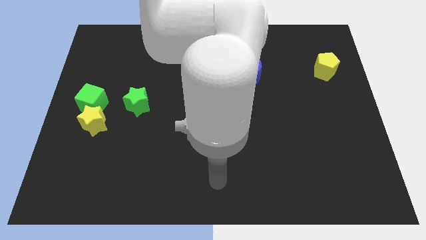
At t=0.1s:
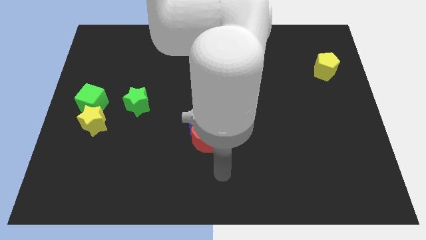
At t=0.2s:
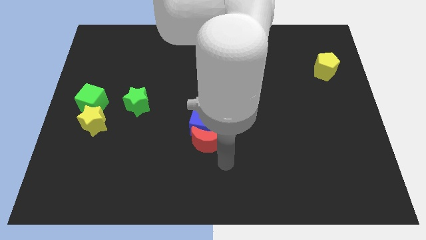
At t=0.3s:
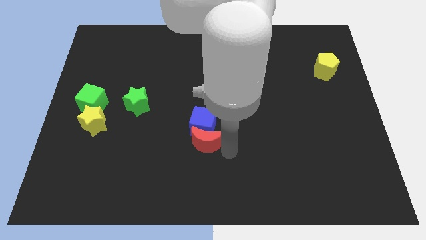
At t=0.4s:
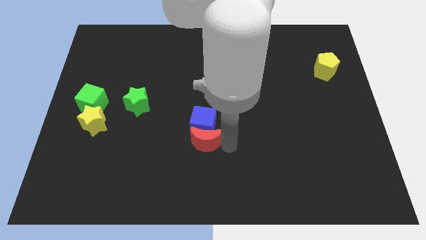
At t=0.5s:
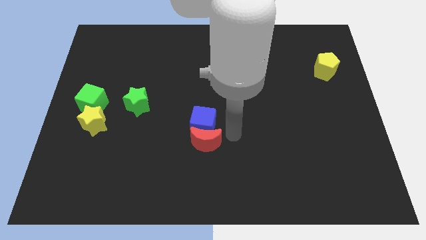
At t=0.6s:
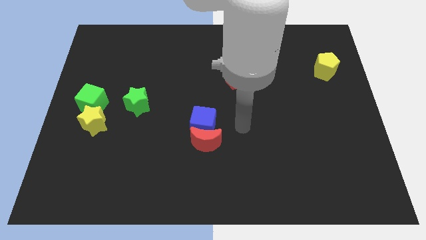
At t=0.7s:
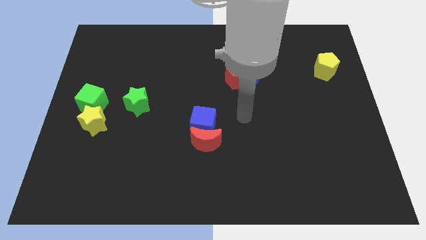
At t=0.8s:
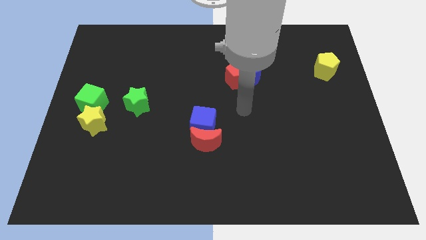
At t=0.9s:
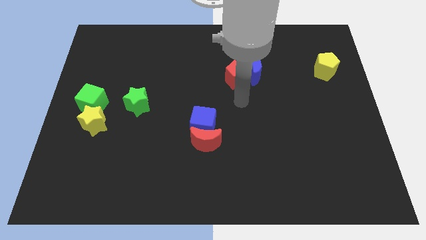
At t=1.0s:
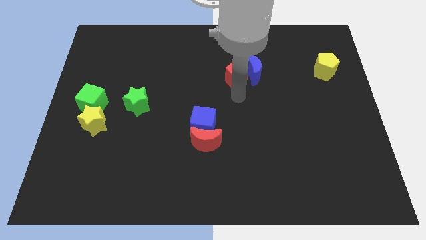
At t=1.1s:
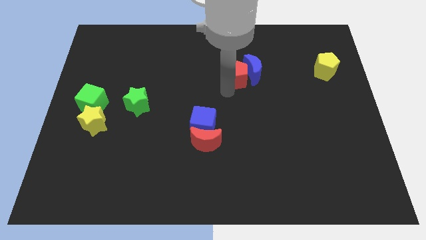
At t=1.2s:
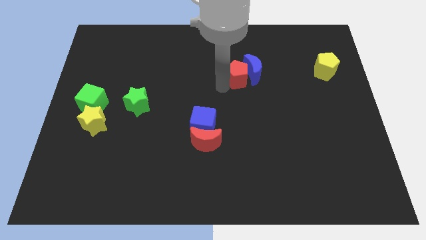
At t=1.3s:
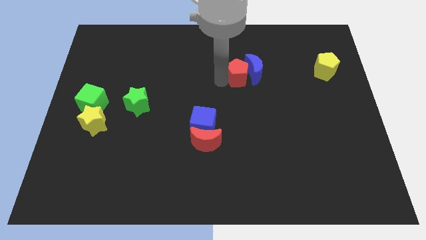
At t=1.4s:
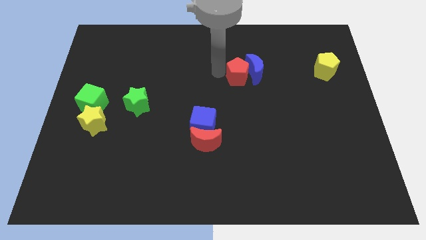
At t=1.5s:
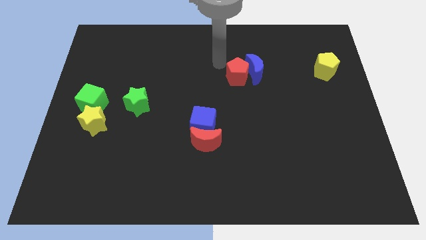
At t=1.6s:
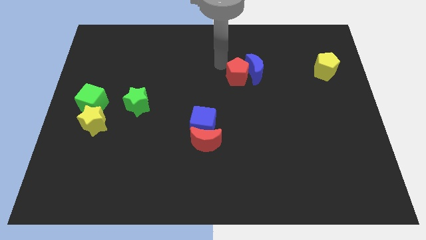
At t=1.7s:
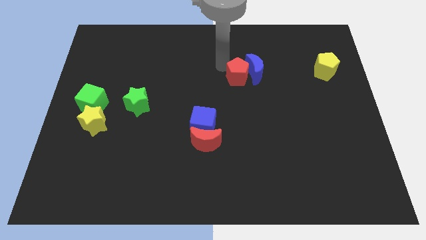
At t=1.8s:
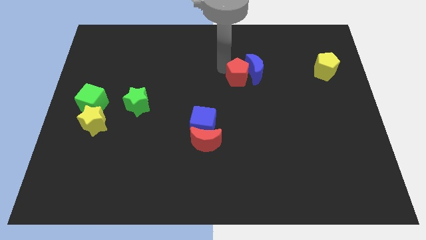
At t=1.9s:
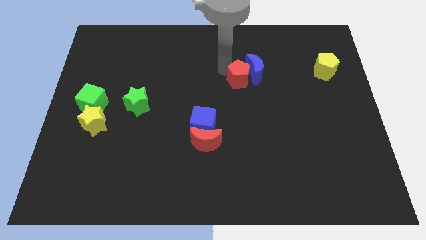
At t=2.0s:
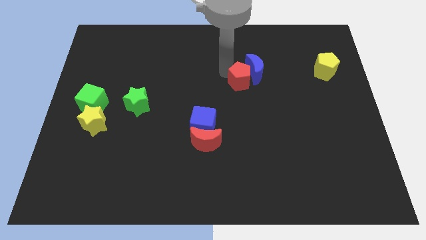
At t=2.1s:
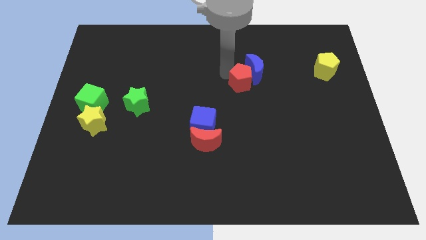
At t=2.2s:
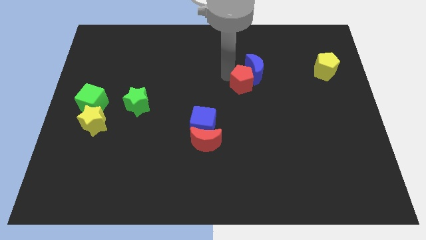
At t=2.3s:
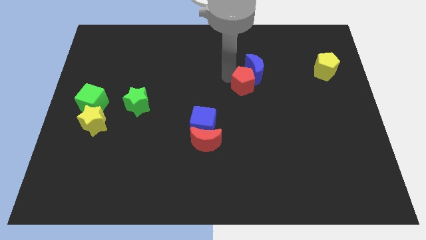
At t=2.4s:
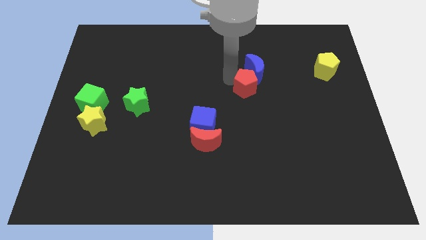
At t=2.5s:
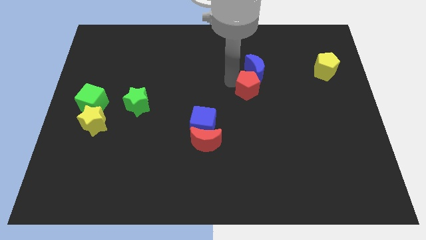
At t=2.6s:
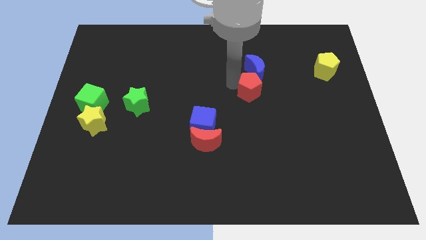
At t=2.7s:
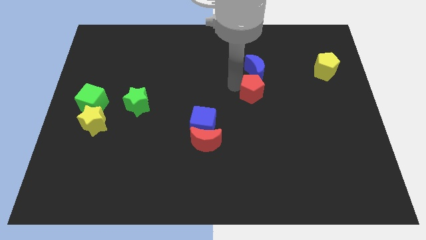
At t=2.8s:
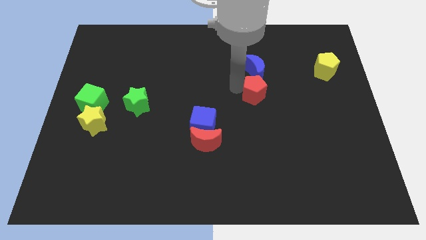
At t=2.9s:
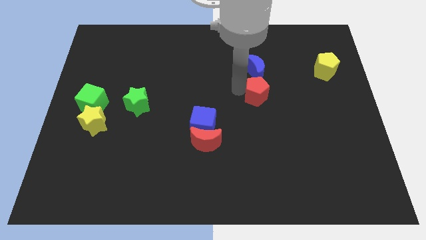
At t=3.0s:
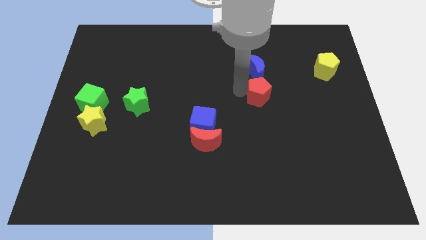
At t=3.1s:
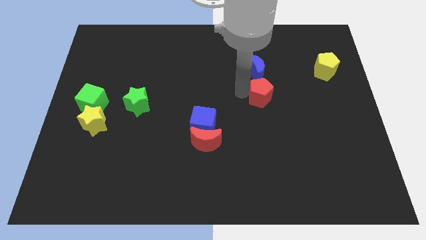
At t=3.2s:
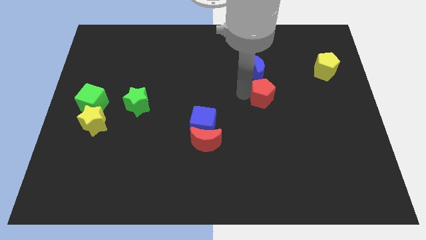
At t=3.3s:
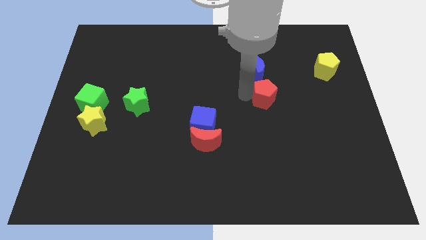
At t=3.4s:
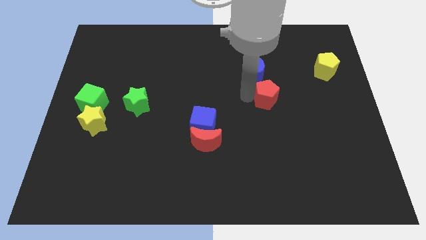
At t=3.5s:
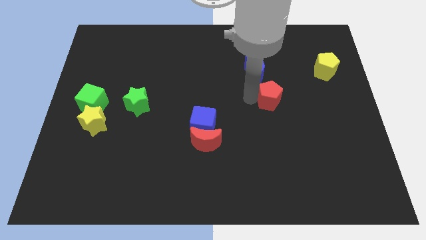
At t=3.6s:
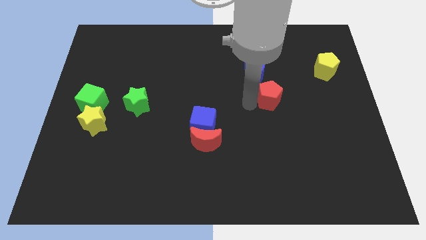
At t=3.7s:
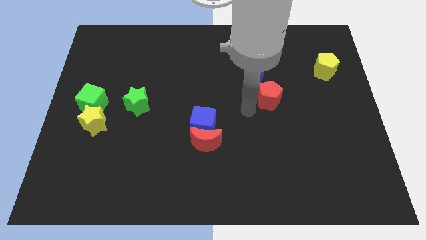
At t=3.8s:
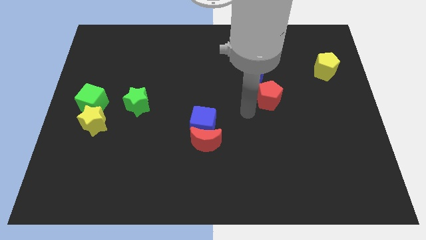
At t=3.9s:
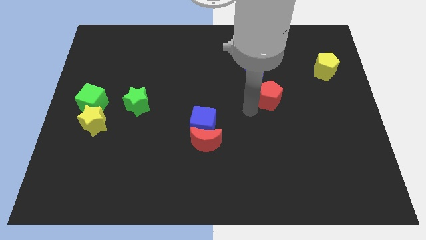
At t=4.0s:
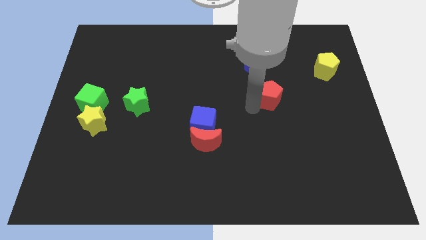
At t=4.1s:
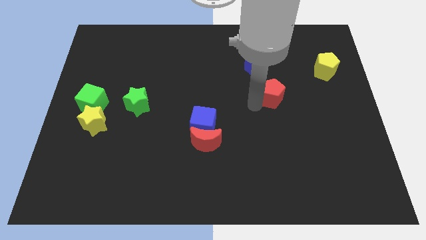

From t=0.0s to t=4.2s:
move the red pentagon somewhat right

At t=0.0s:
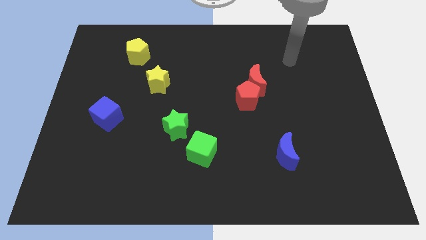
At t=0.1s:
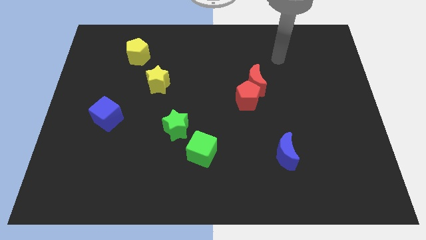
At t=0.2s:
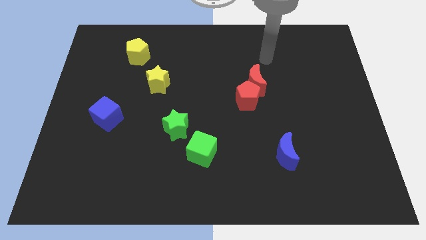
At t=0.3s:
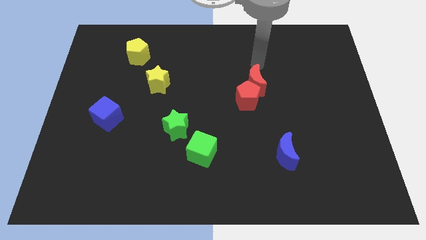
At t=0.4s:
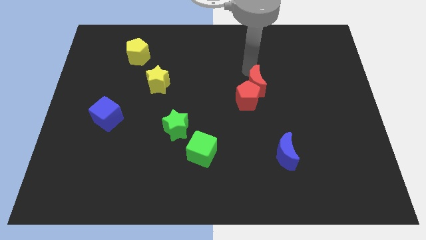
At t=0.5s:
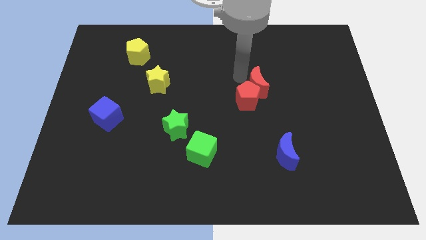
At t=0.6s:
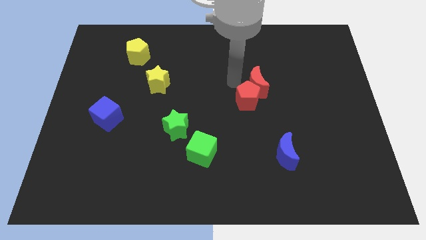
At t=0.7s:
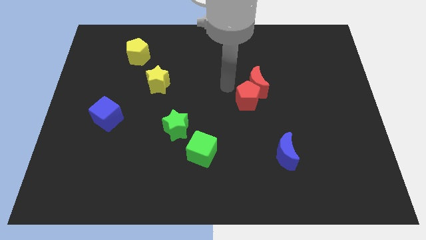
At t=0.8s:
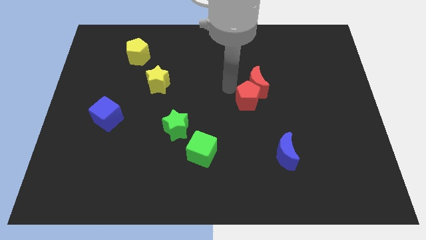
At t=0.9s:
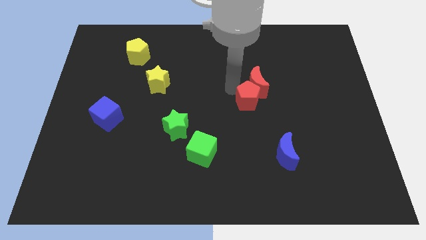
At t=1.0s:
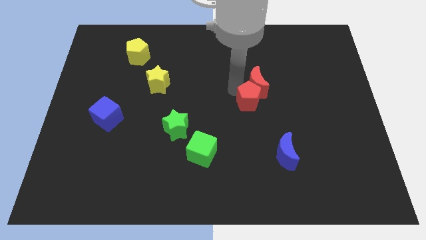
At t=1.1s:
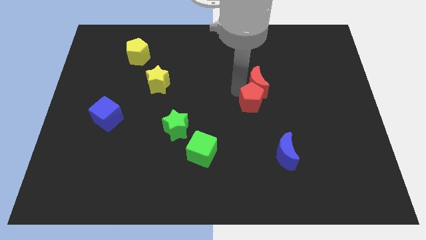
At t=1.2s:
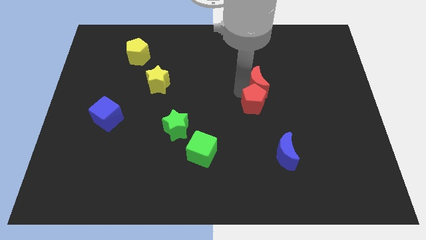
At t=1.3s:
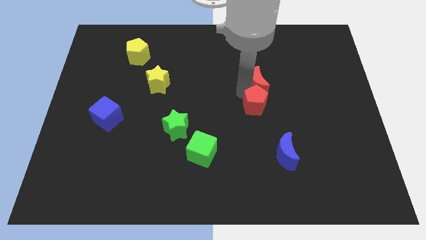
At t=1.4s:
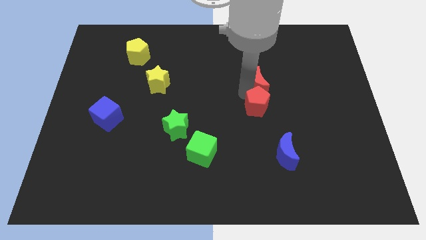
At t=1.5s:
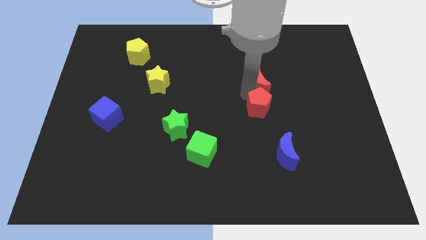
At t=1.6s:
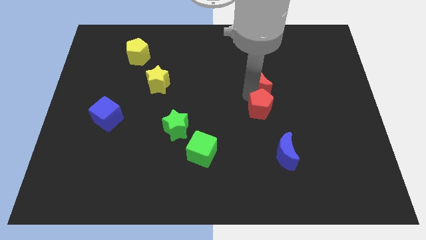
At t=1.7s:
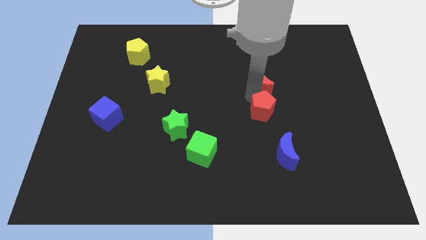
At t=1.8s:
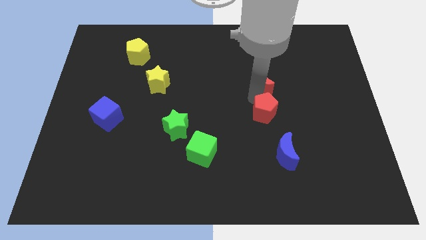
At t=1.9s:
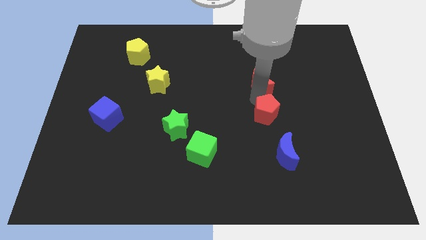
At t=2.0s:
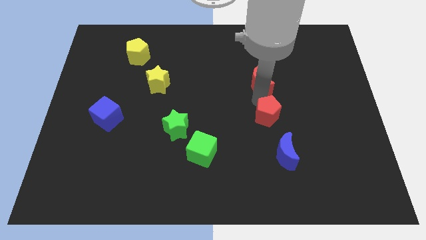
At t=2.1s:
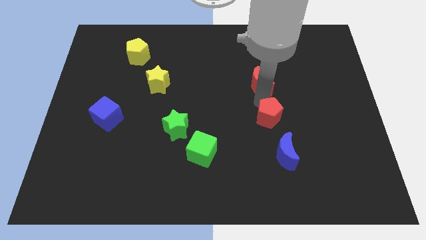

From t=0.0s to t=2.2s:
slightly push the red pentagon down and to the right

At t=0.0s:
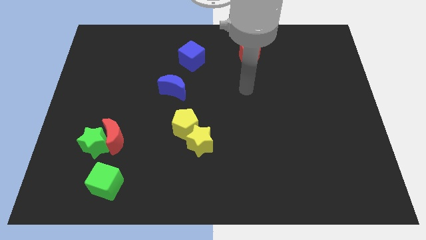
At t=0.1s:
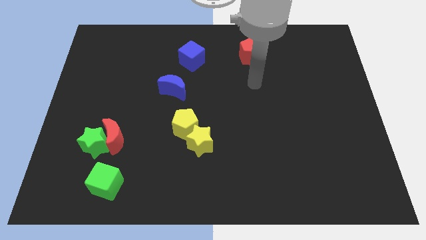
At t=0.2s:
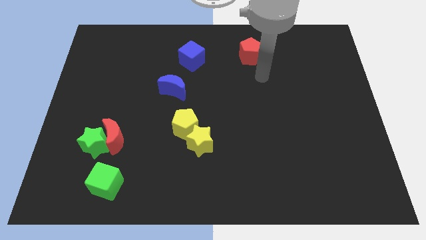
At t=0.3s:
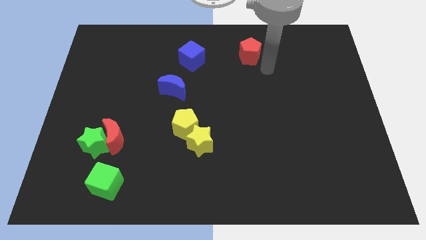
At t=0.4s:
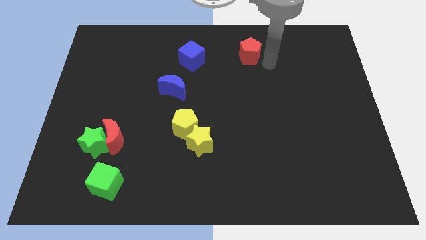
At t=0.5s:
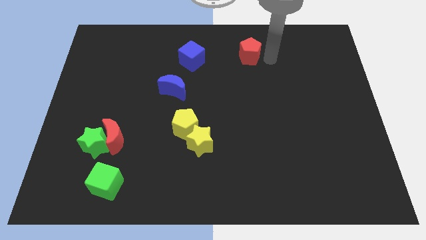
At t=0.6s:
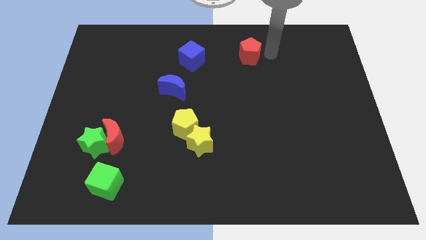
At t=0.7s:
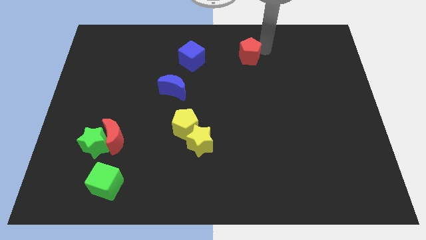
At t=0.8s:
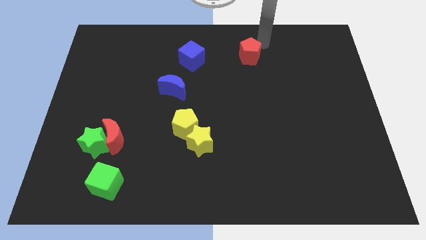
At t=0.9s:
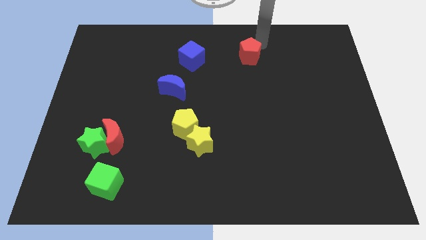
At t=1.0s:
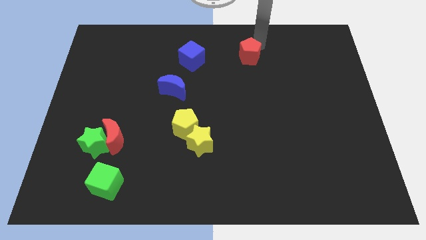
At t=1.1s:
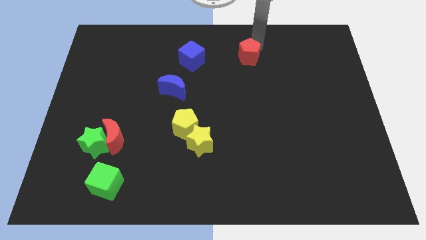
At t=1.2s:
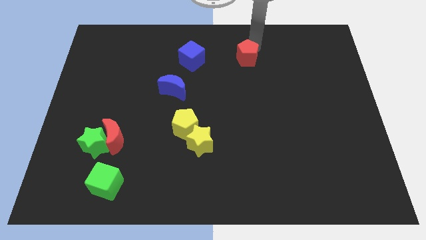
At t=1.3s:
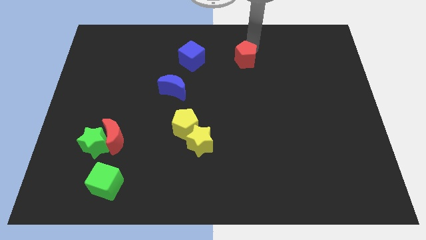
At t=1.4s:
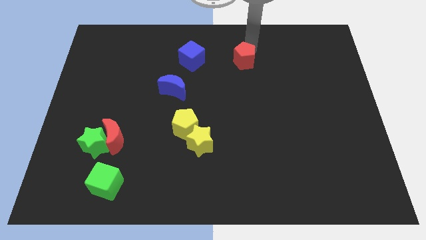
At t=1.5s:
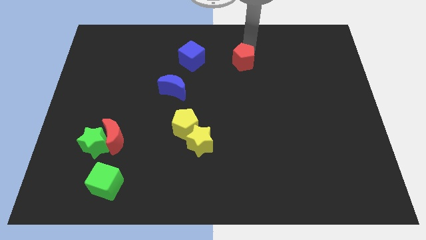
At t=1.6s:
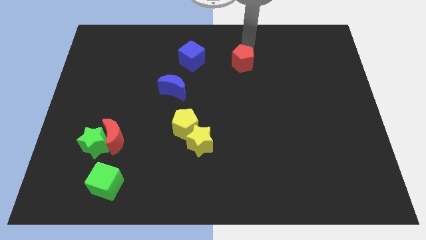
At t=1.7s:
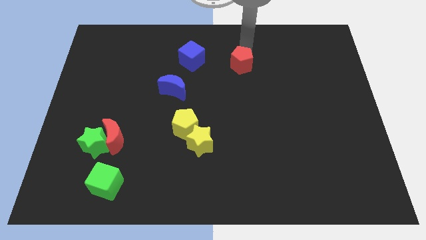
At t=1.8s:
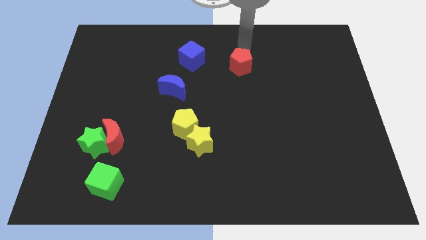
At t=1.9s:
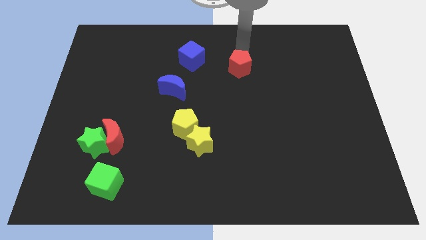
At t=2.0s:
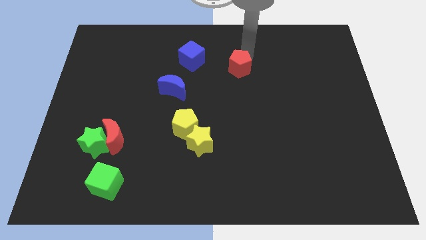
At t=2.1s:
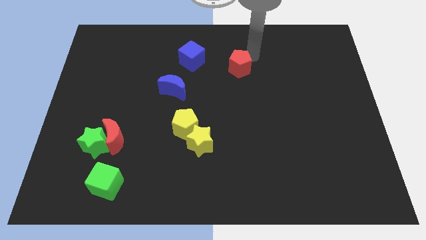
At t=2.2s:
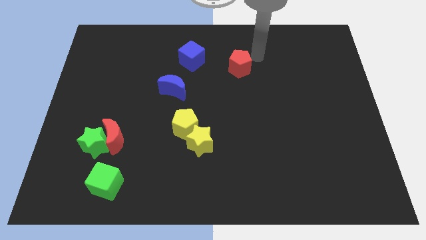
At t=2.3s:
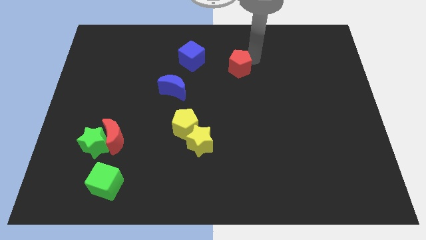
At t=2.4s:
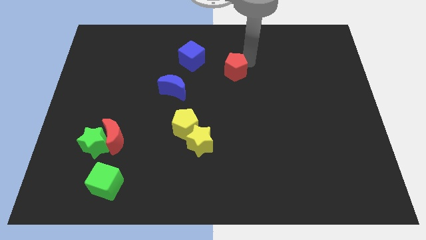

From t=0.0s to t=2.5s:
slide the red pentagon somewhat downwards and then left
